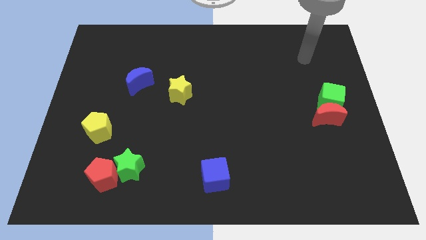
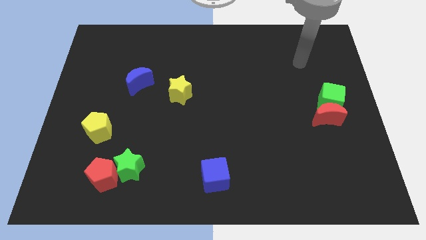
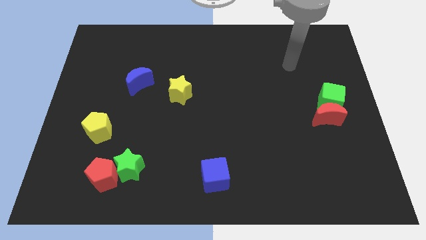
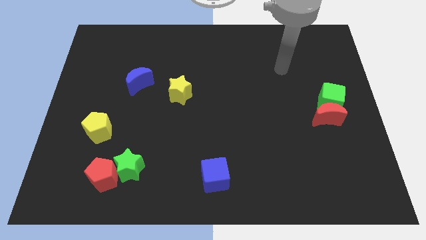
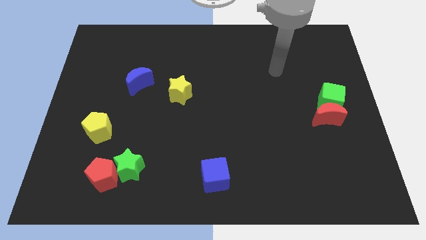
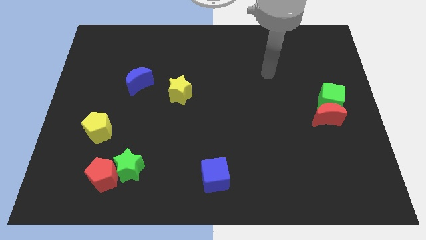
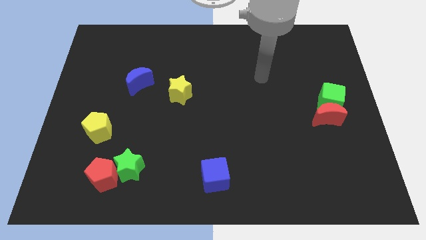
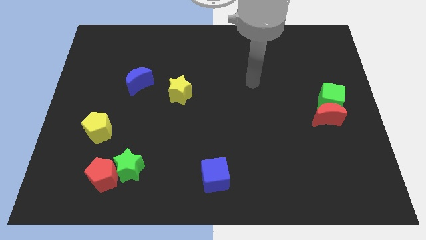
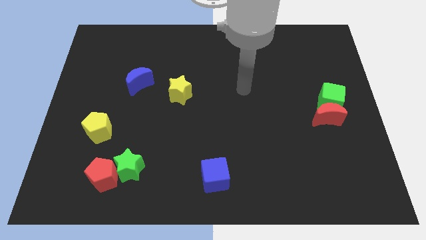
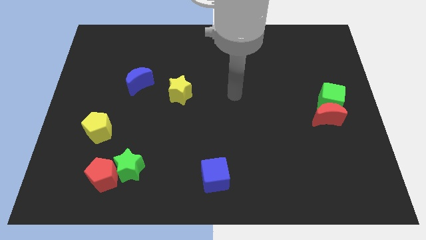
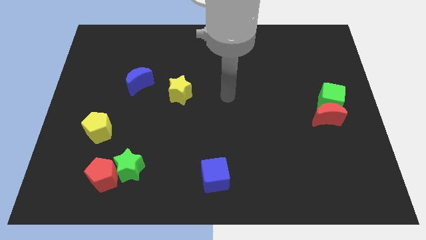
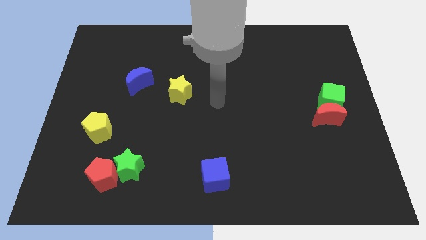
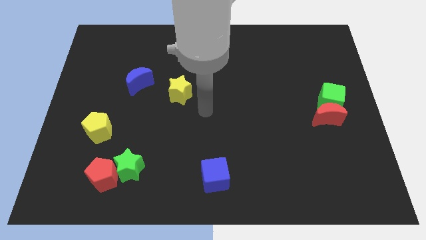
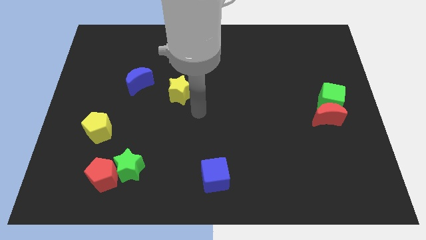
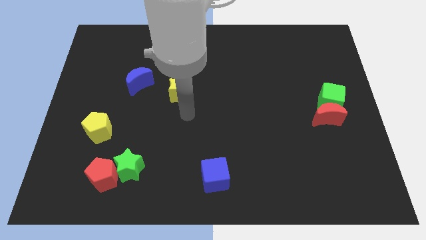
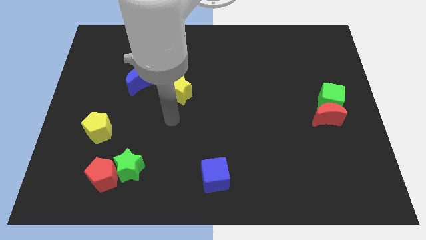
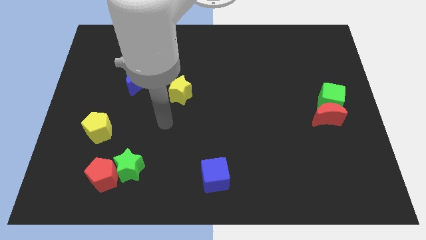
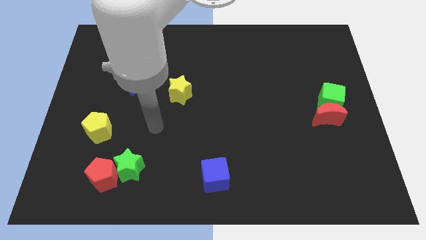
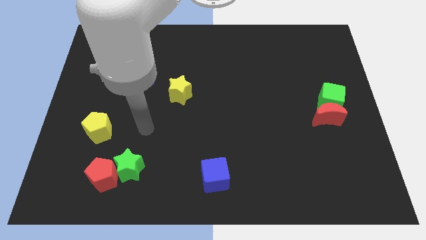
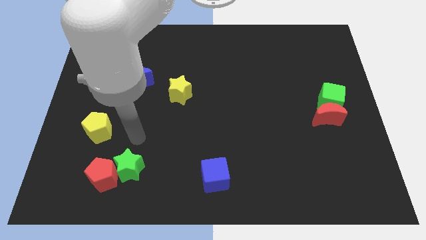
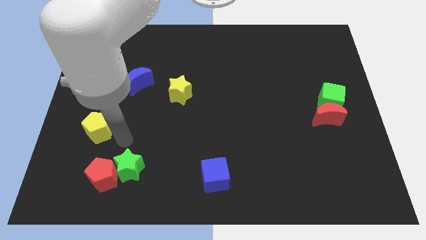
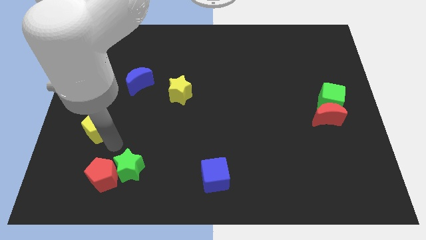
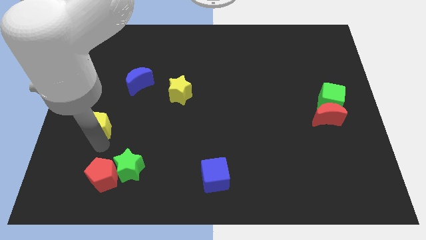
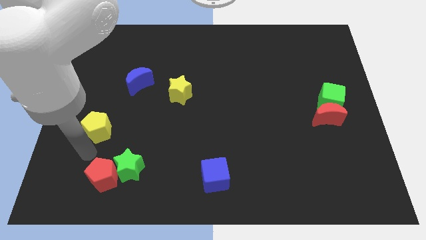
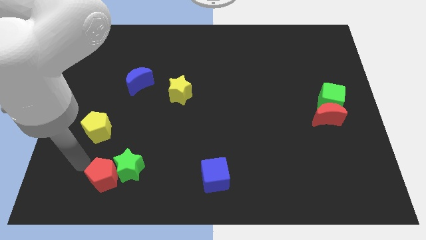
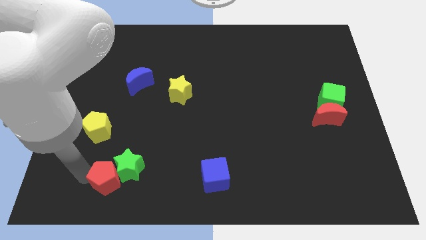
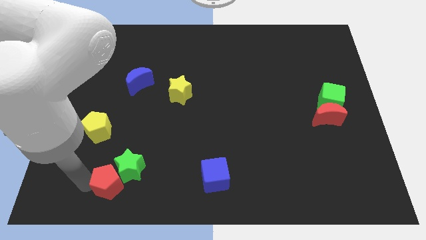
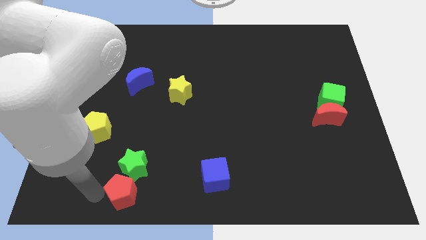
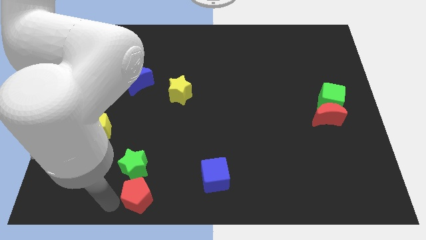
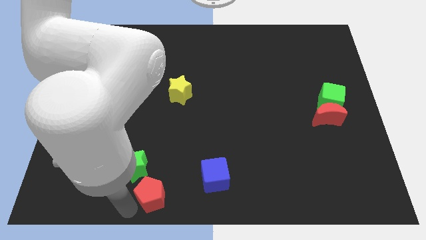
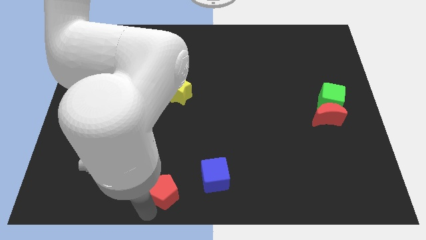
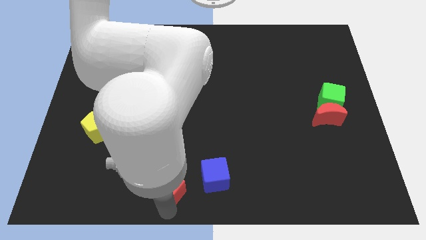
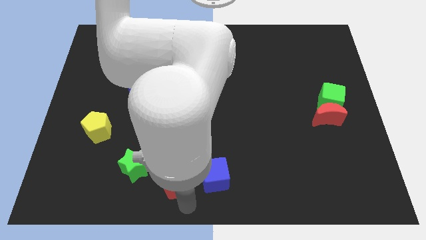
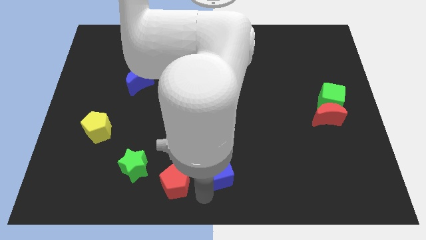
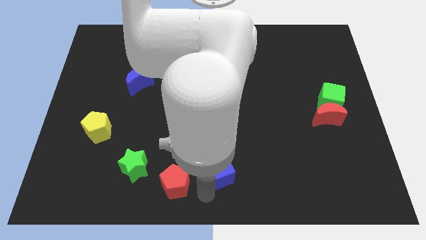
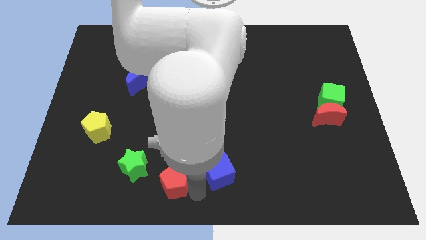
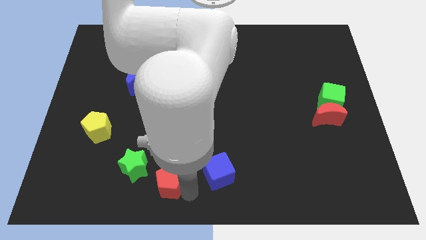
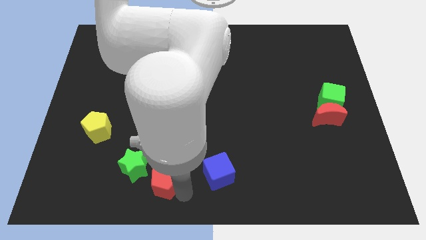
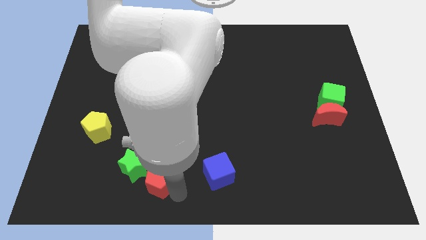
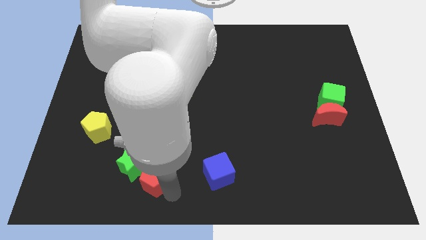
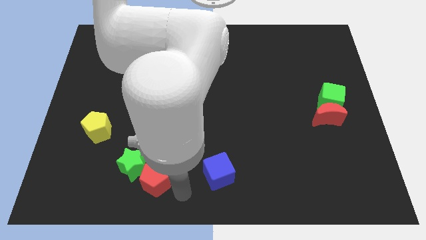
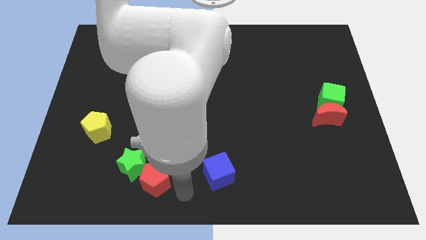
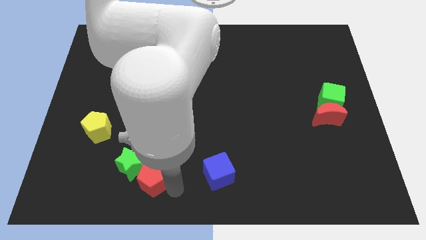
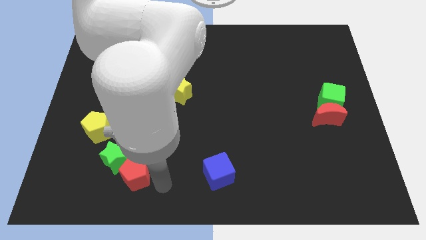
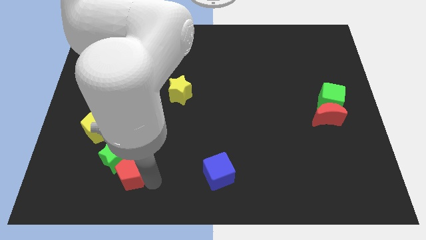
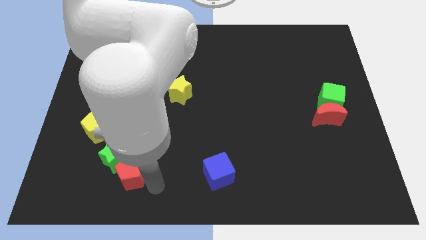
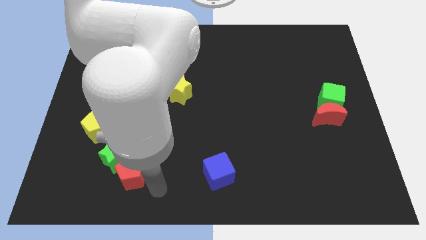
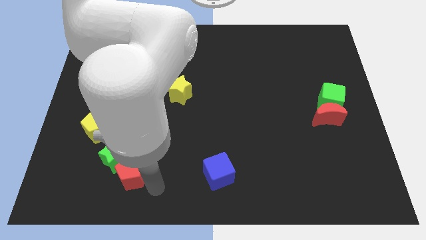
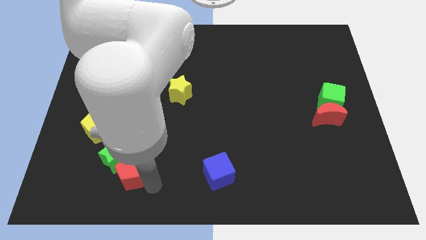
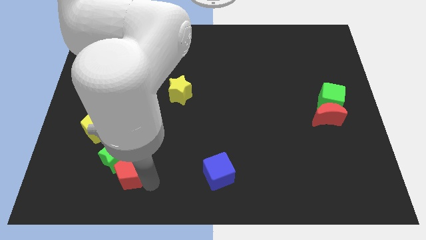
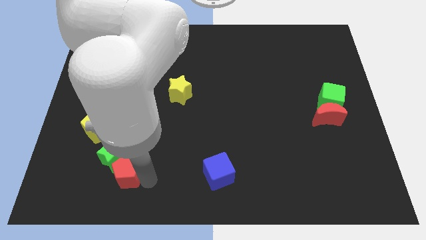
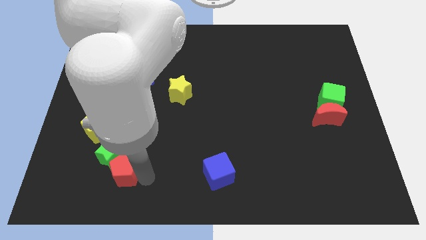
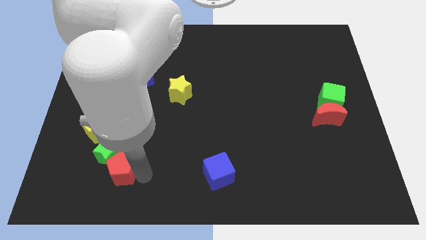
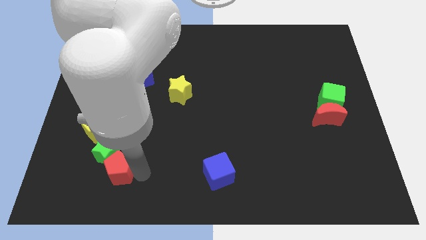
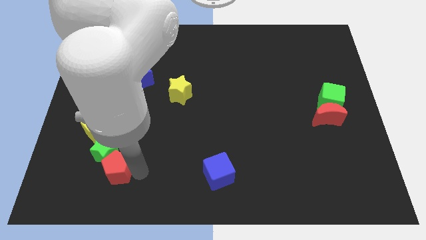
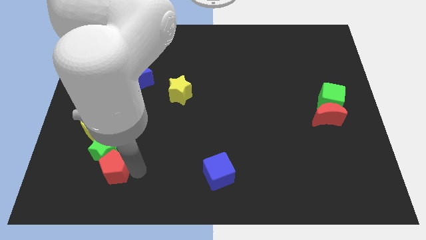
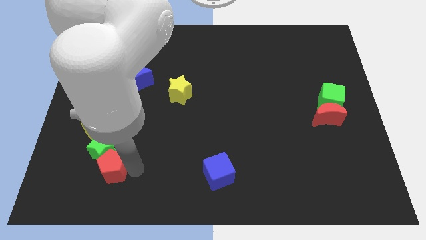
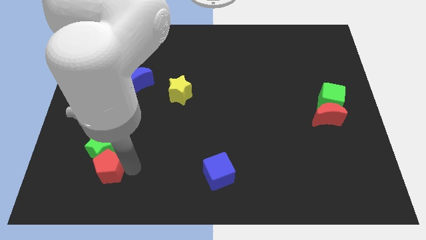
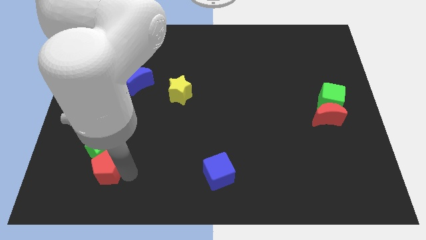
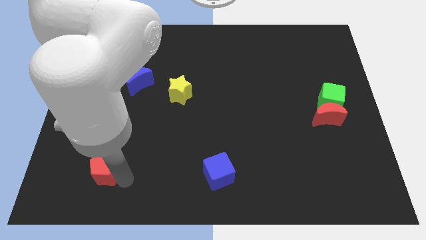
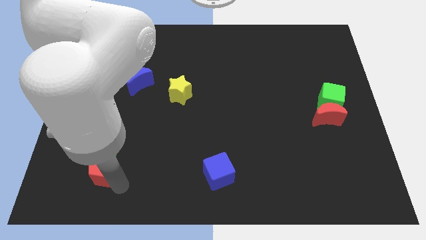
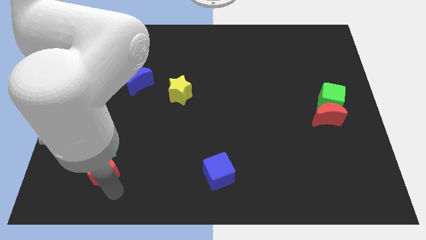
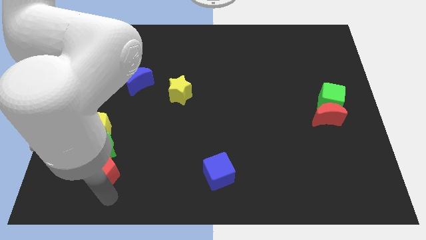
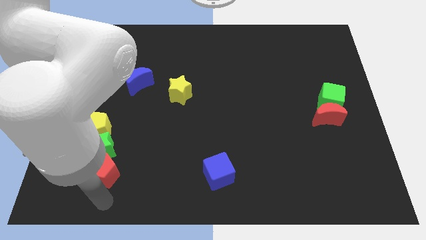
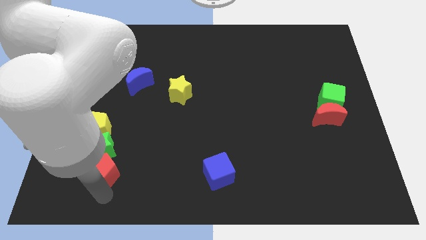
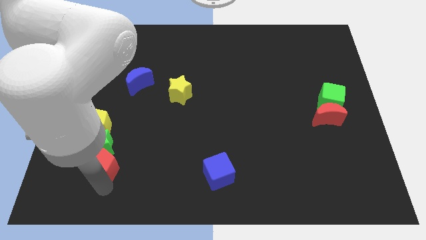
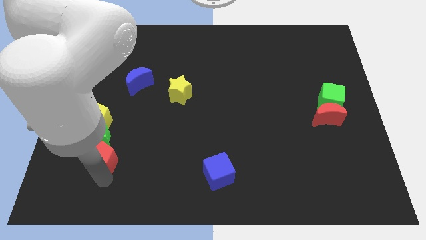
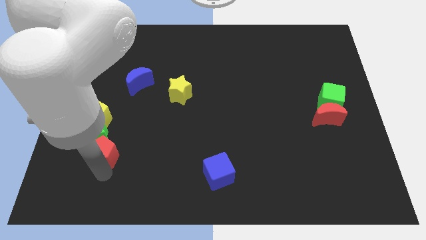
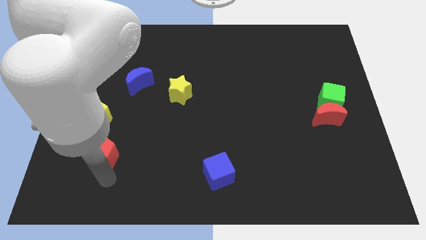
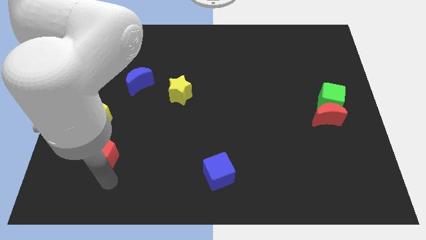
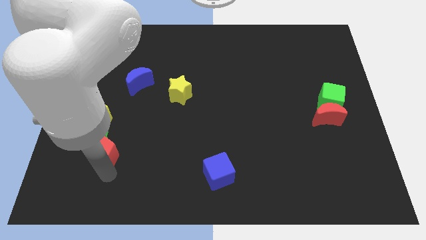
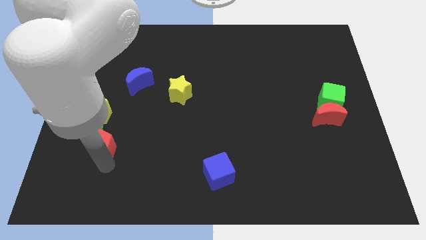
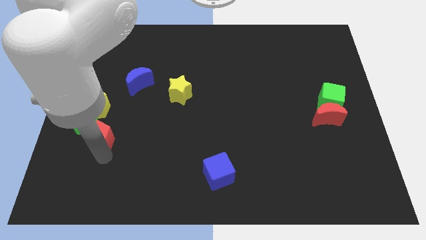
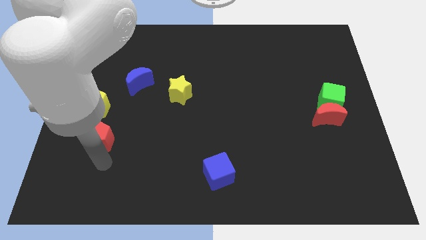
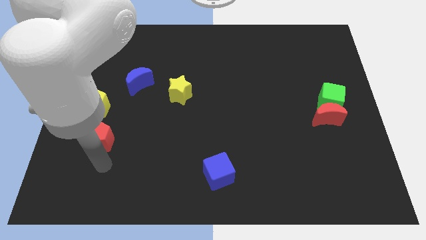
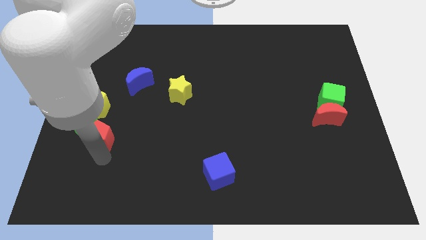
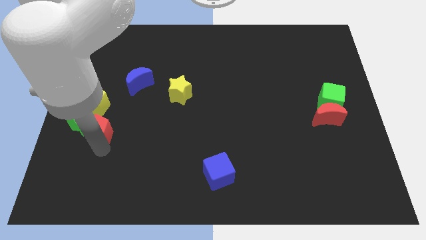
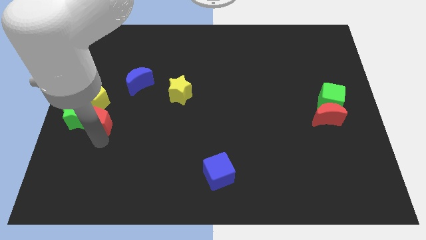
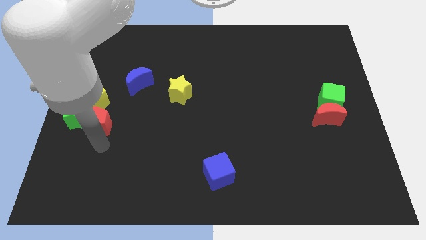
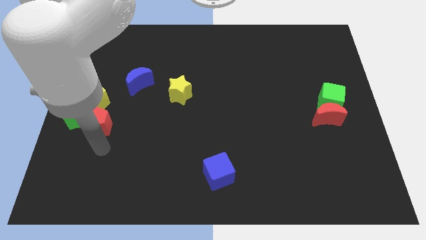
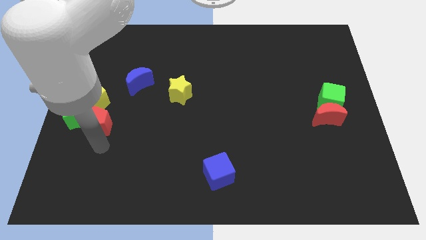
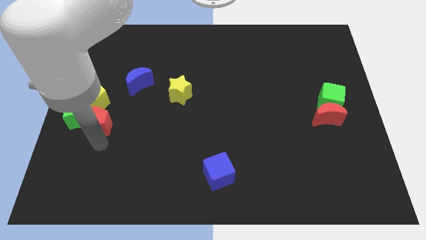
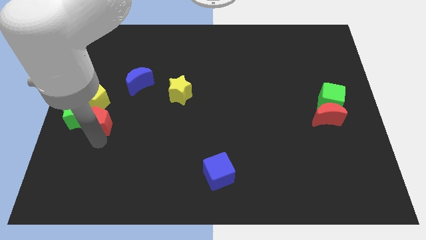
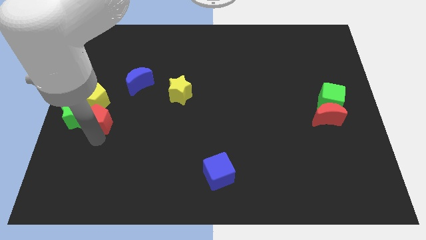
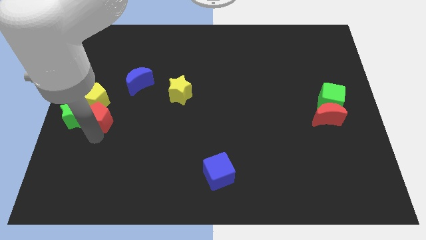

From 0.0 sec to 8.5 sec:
push the red pentagon towards the yellow pentagon
